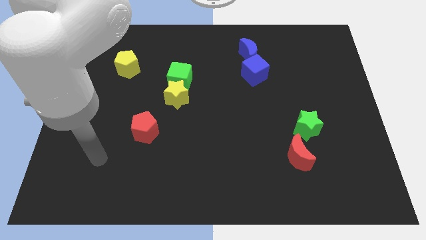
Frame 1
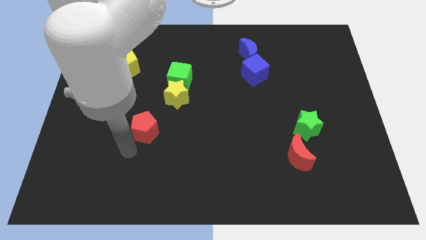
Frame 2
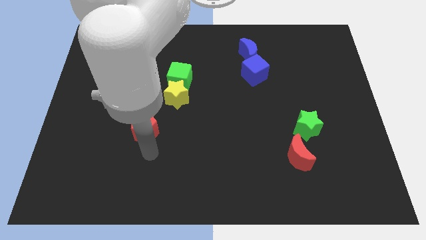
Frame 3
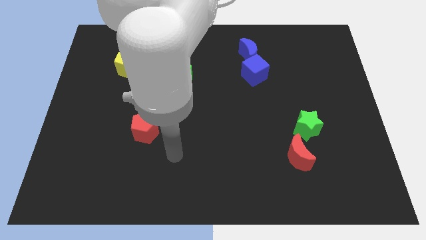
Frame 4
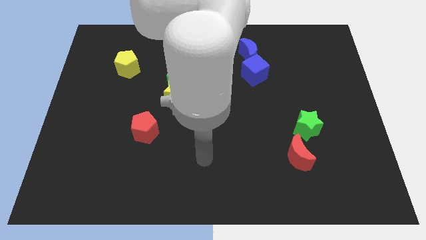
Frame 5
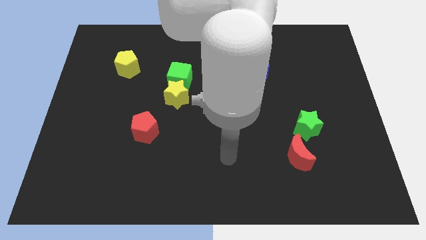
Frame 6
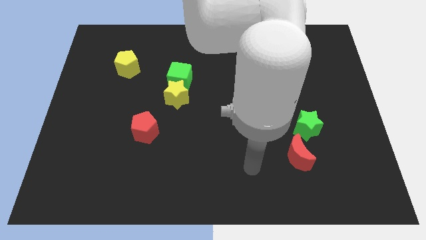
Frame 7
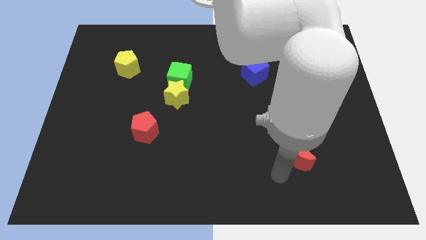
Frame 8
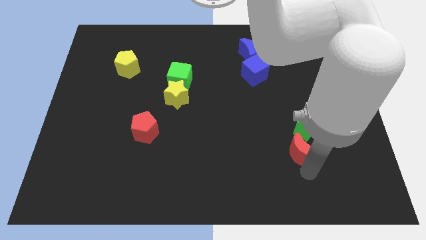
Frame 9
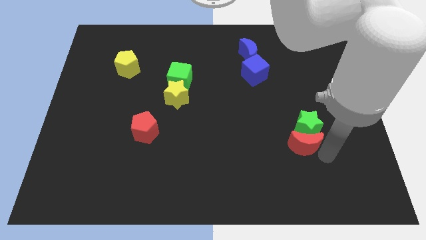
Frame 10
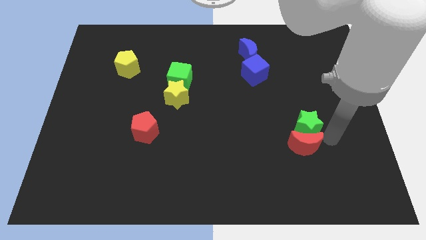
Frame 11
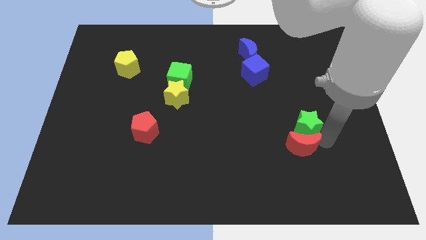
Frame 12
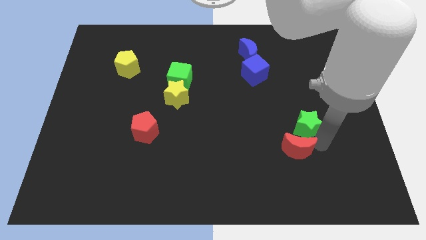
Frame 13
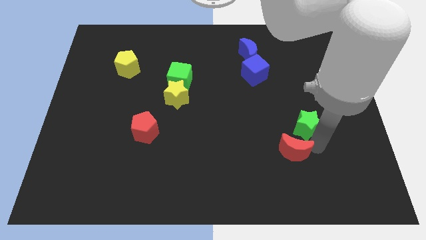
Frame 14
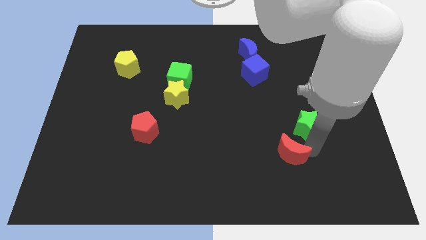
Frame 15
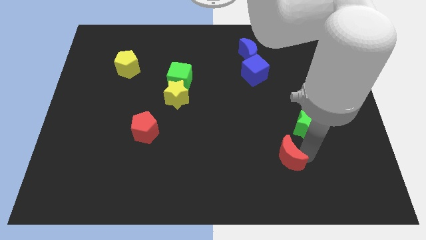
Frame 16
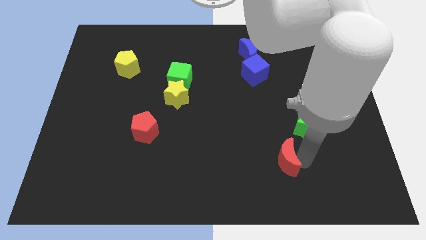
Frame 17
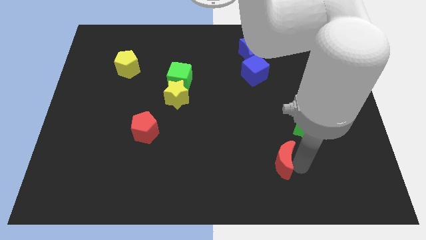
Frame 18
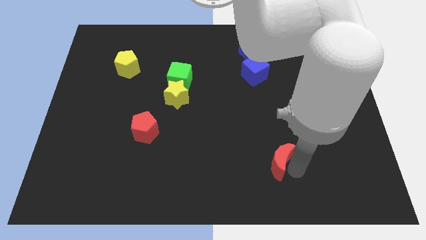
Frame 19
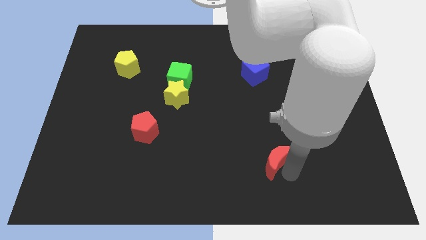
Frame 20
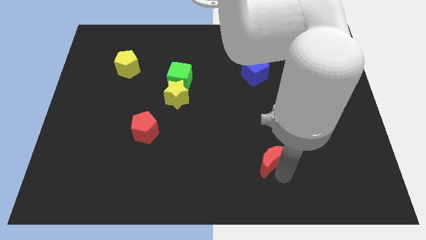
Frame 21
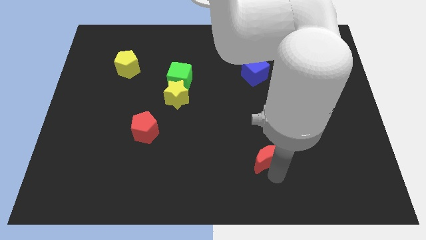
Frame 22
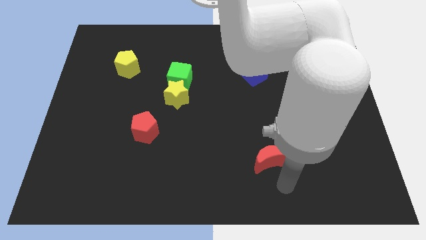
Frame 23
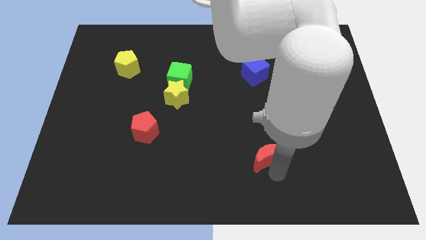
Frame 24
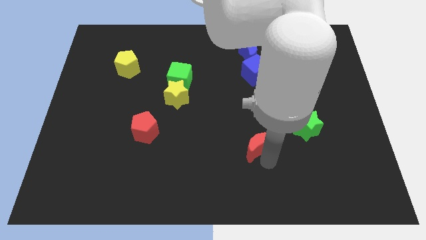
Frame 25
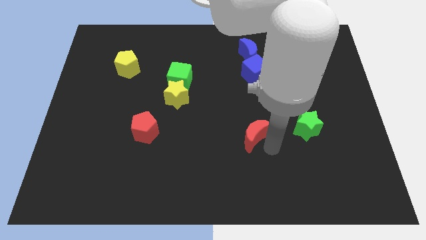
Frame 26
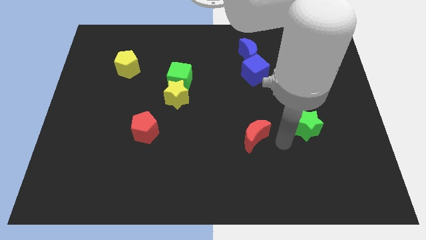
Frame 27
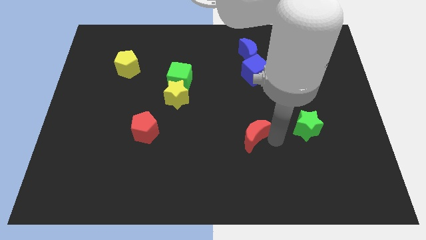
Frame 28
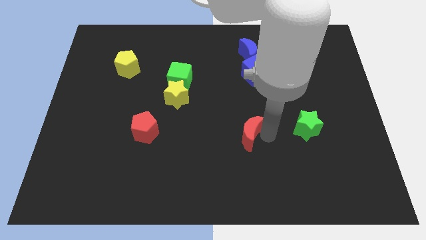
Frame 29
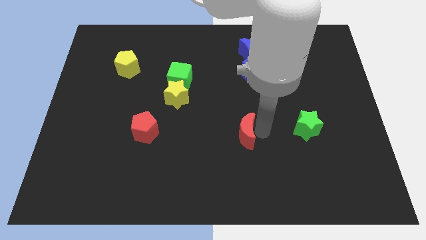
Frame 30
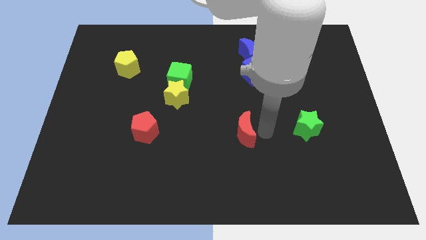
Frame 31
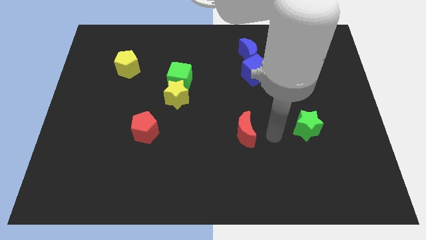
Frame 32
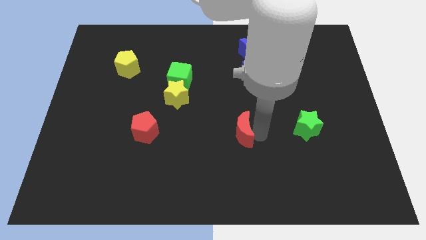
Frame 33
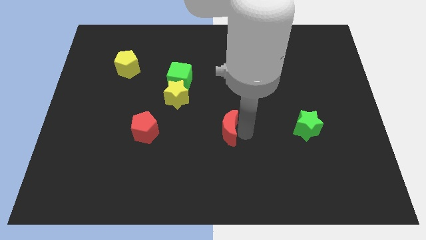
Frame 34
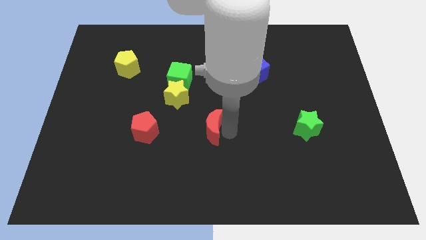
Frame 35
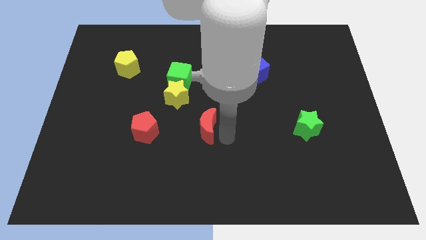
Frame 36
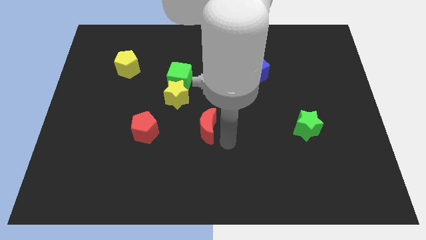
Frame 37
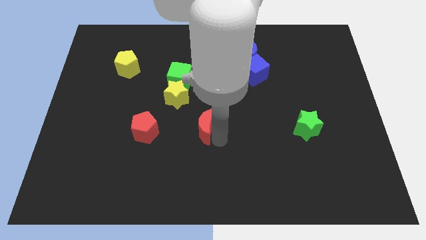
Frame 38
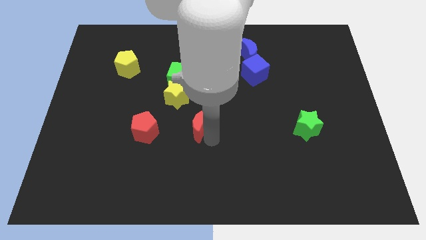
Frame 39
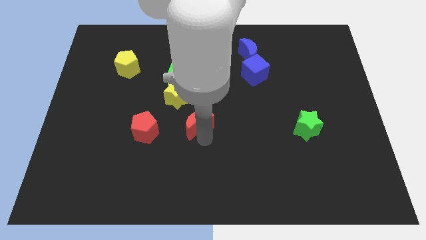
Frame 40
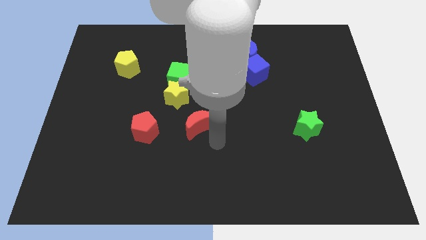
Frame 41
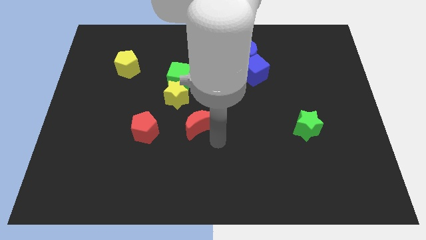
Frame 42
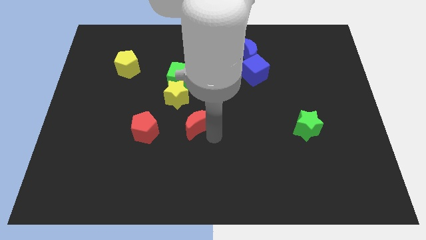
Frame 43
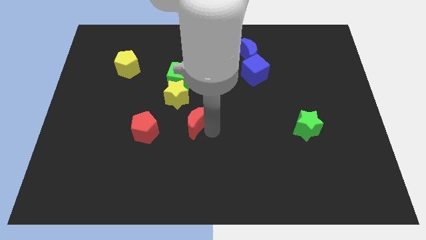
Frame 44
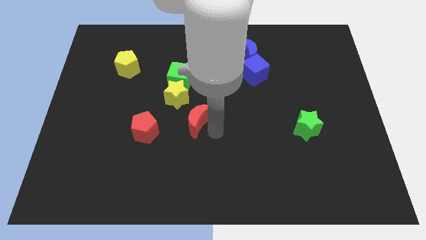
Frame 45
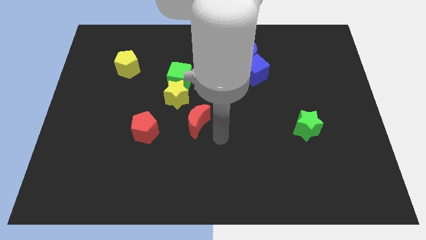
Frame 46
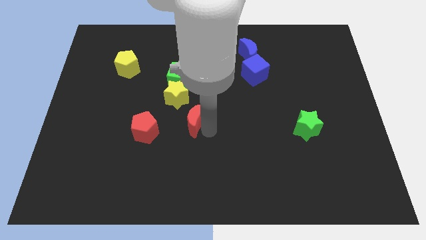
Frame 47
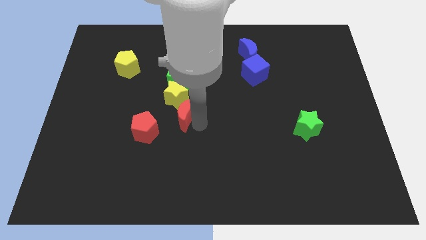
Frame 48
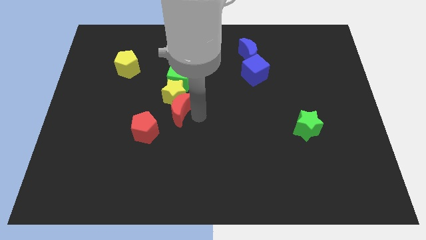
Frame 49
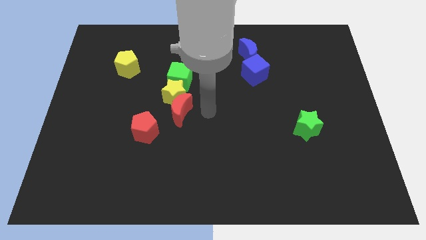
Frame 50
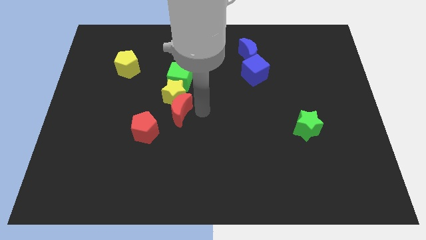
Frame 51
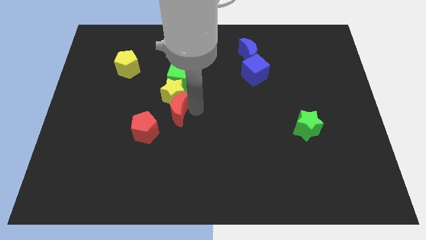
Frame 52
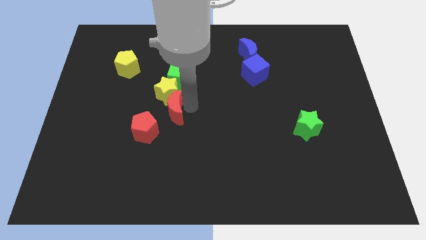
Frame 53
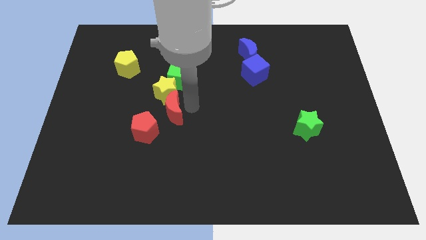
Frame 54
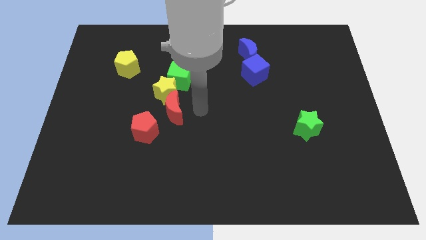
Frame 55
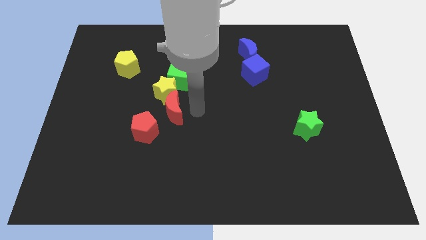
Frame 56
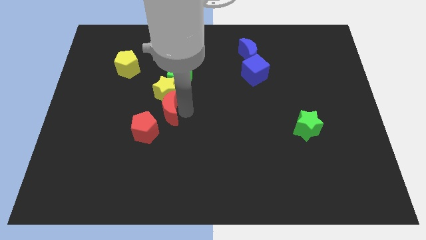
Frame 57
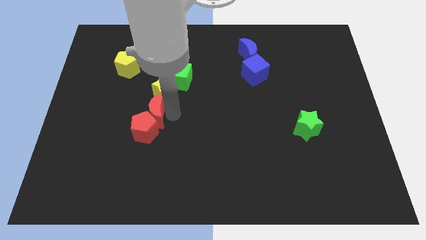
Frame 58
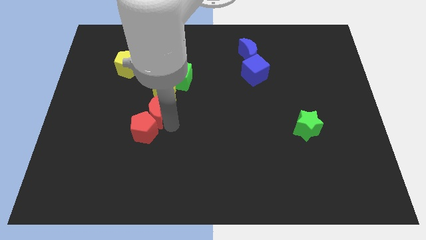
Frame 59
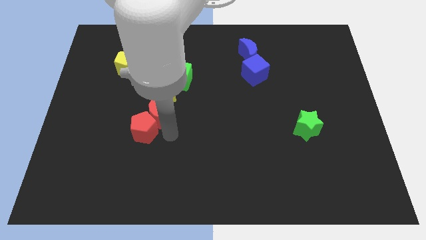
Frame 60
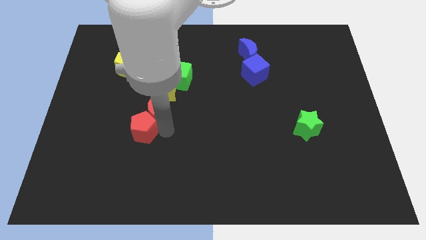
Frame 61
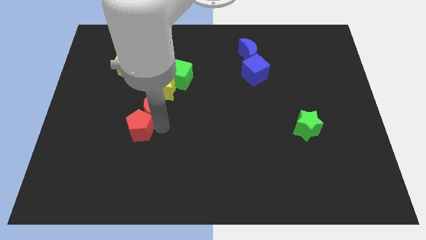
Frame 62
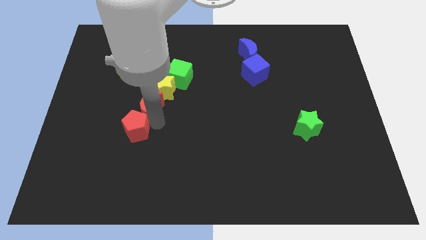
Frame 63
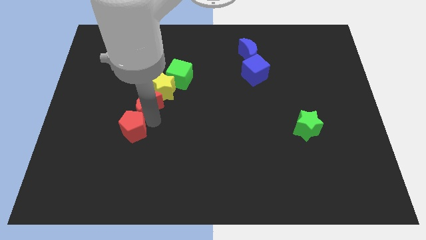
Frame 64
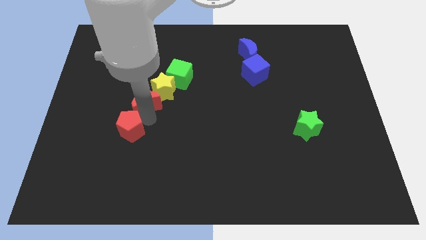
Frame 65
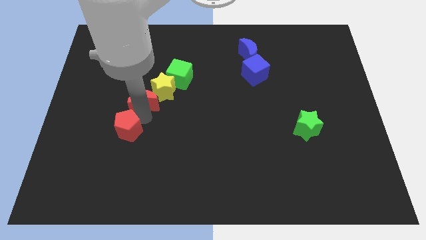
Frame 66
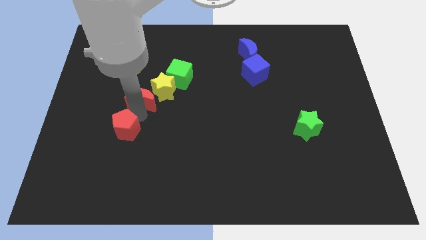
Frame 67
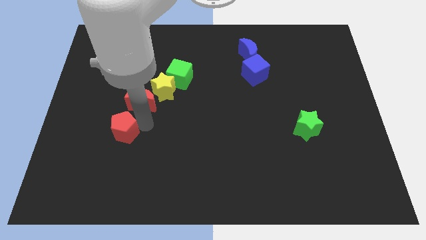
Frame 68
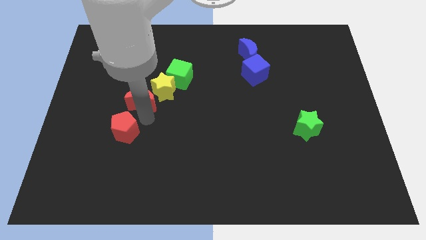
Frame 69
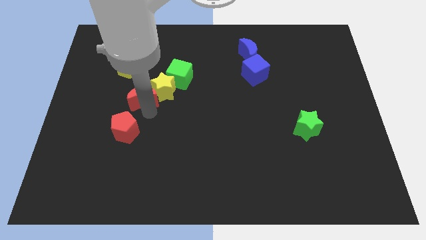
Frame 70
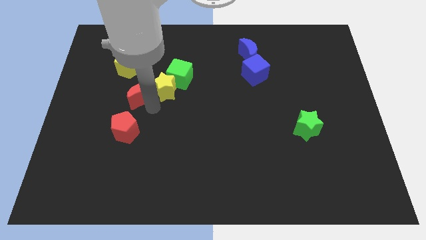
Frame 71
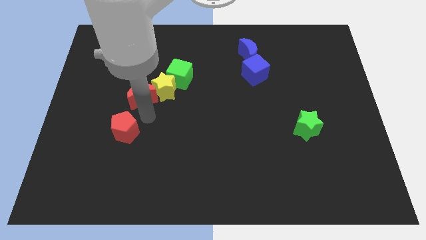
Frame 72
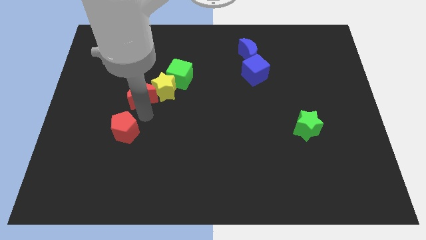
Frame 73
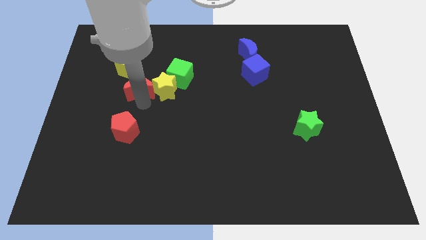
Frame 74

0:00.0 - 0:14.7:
put the red moon just left of the green cube
